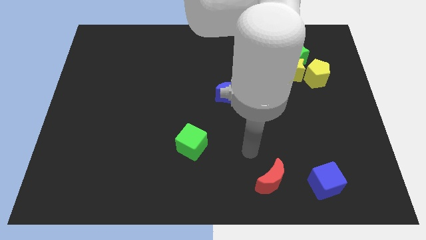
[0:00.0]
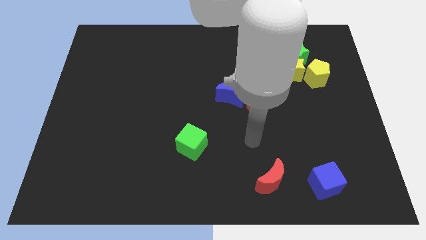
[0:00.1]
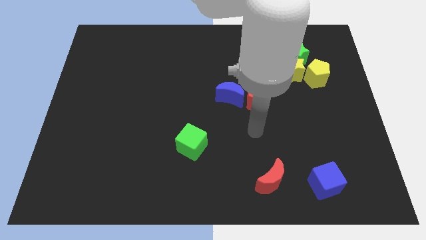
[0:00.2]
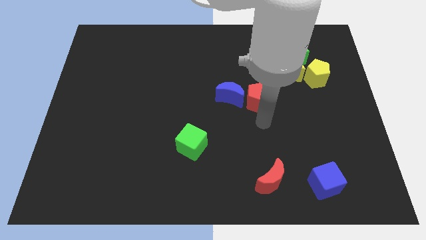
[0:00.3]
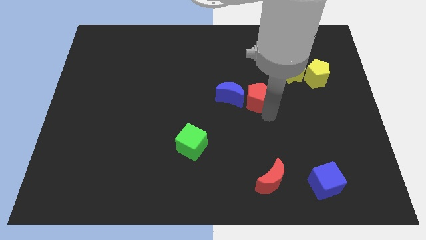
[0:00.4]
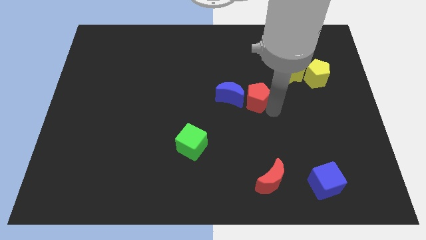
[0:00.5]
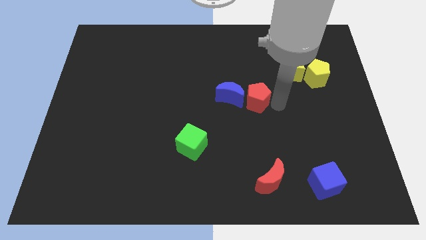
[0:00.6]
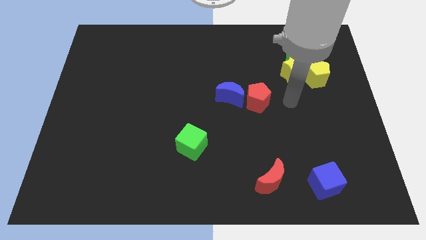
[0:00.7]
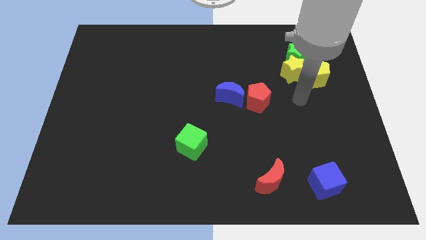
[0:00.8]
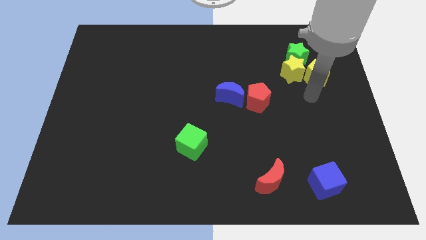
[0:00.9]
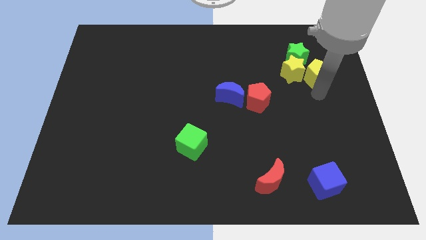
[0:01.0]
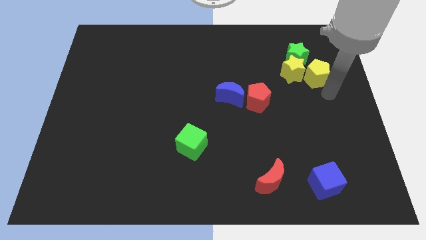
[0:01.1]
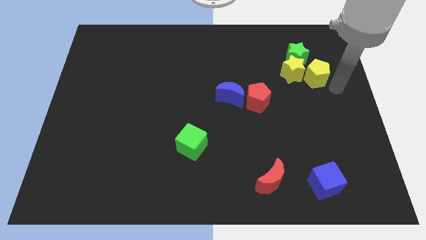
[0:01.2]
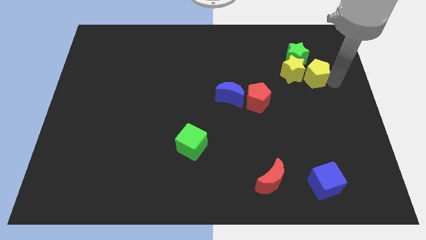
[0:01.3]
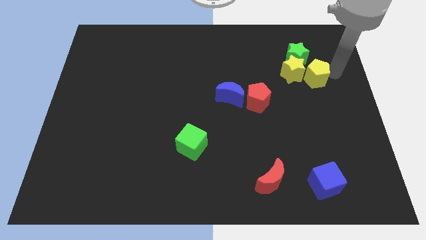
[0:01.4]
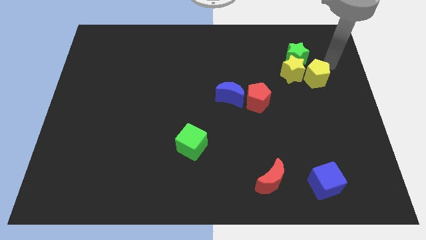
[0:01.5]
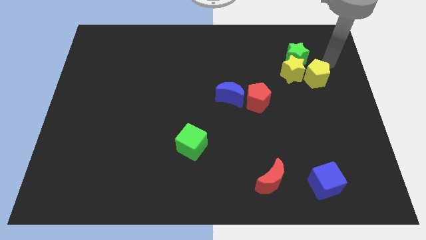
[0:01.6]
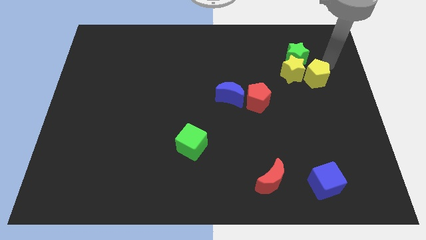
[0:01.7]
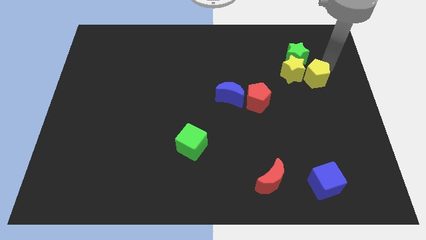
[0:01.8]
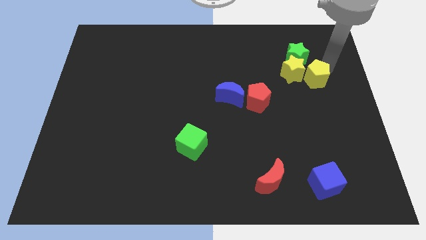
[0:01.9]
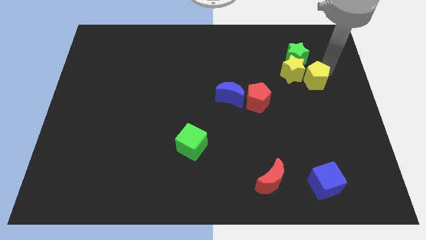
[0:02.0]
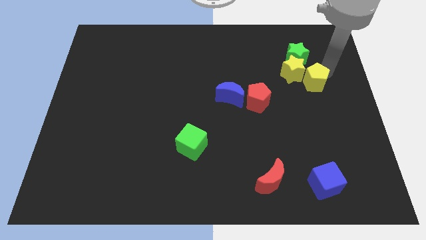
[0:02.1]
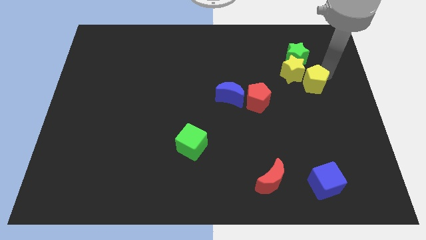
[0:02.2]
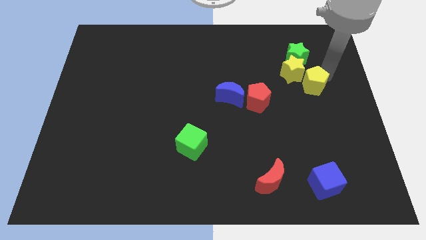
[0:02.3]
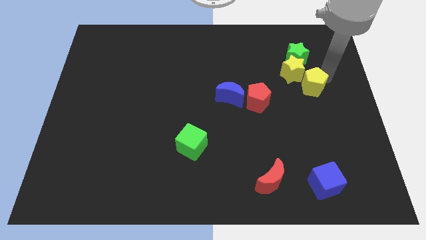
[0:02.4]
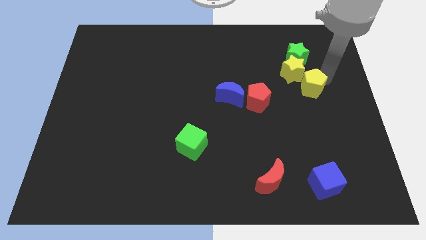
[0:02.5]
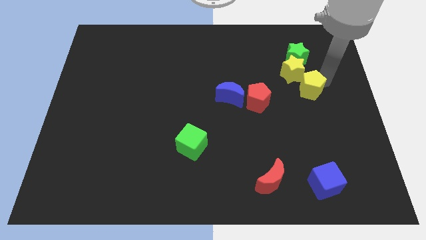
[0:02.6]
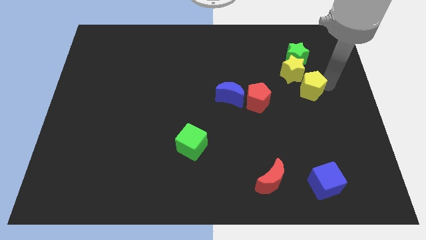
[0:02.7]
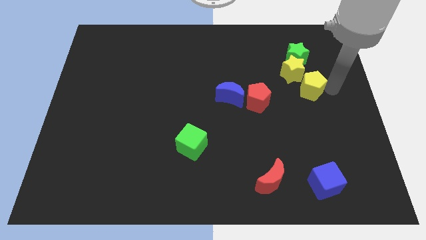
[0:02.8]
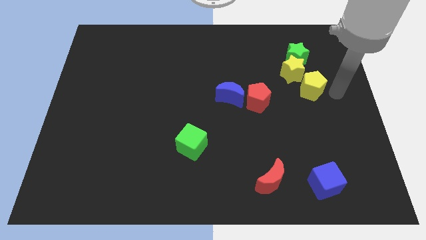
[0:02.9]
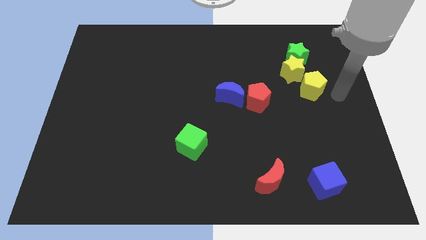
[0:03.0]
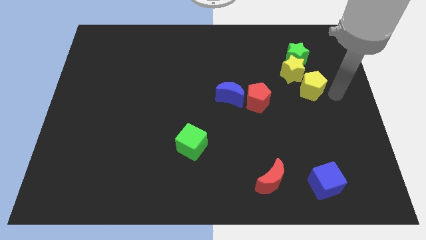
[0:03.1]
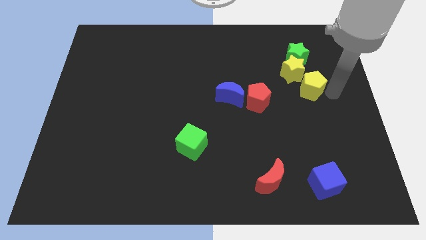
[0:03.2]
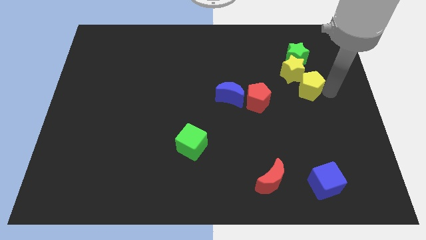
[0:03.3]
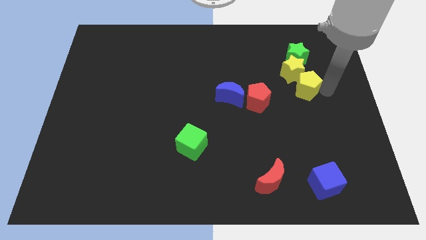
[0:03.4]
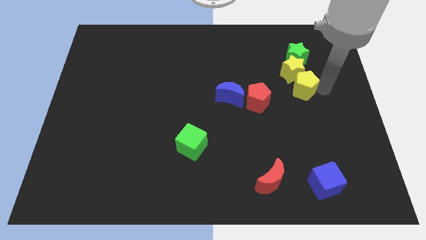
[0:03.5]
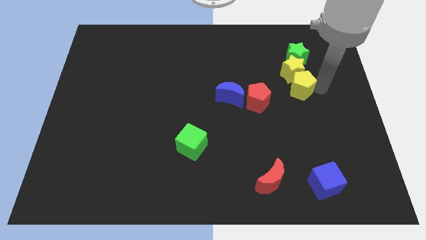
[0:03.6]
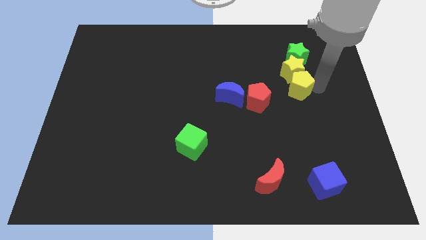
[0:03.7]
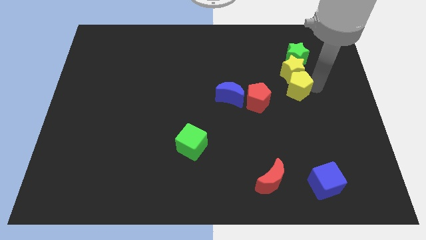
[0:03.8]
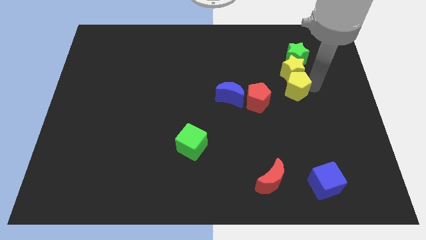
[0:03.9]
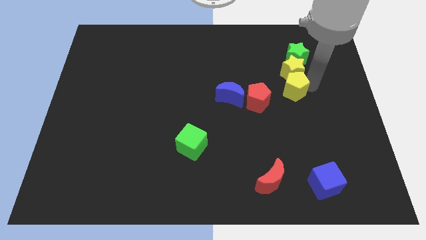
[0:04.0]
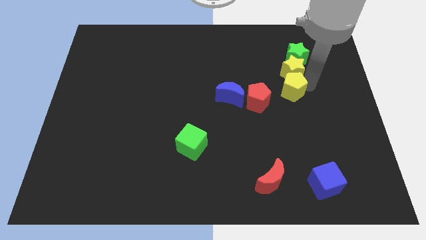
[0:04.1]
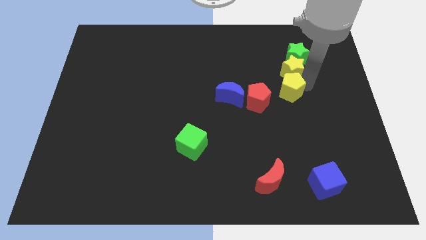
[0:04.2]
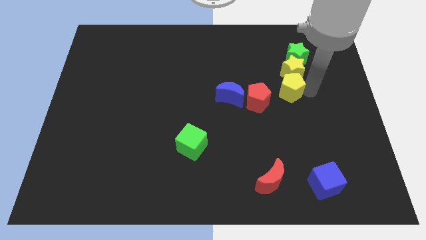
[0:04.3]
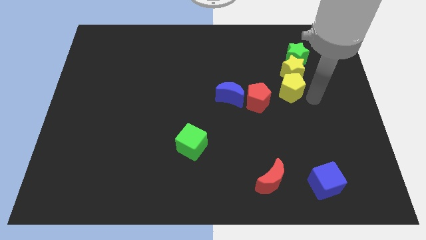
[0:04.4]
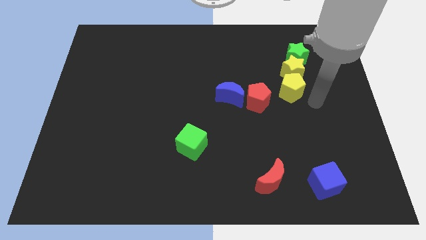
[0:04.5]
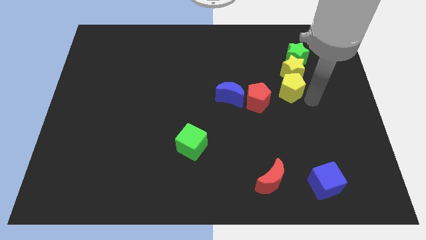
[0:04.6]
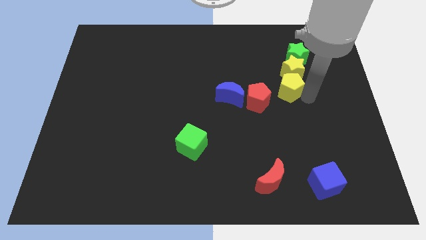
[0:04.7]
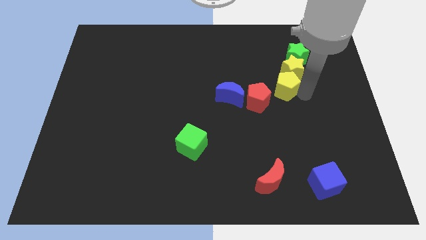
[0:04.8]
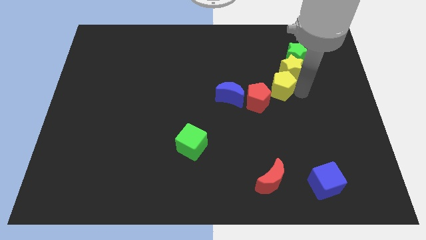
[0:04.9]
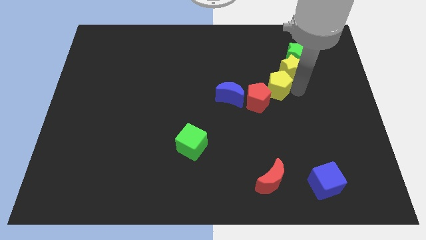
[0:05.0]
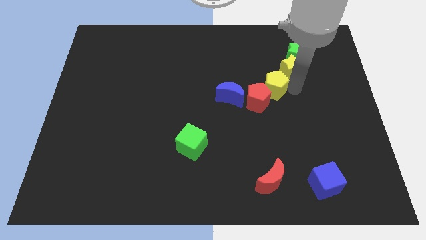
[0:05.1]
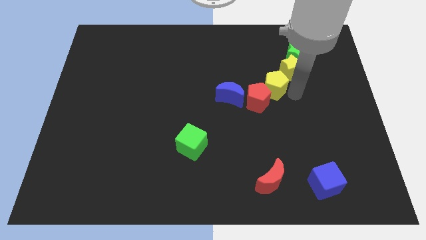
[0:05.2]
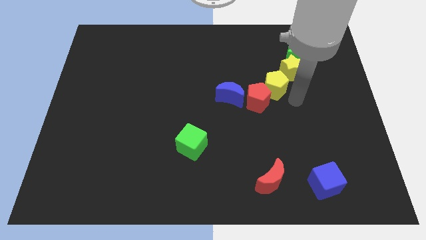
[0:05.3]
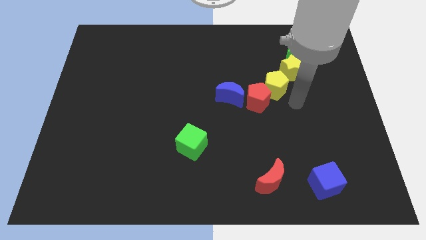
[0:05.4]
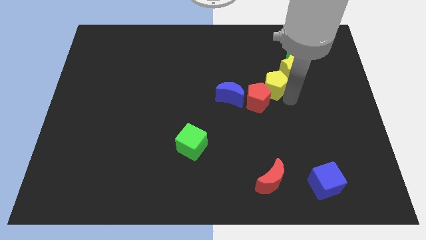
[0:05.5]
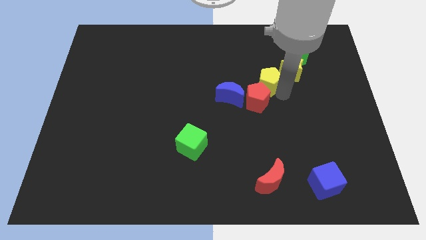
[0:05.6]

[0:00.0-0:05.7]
move the yellow pentagon to the left of the yellow star

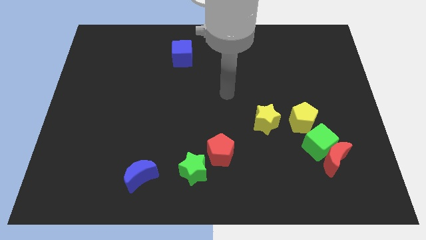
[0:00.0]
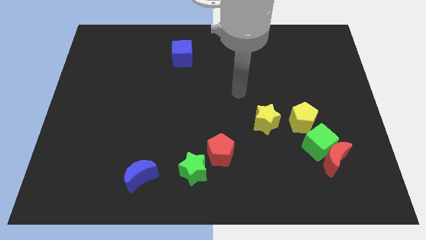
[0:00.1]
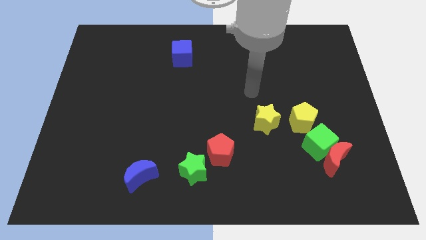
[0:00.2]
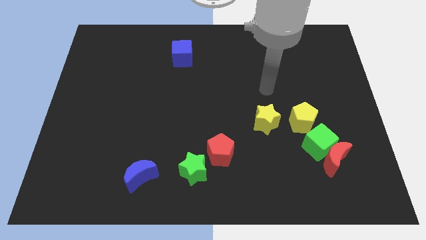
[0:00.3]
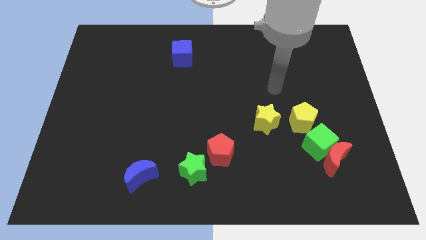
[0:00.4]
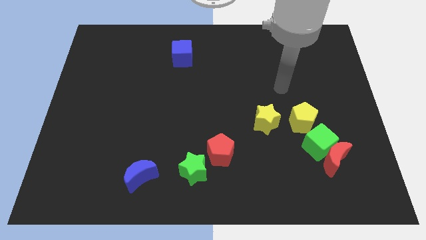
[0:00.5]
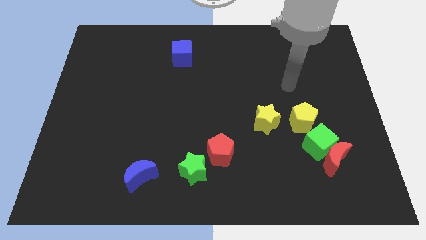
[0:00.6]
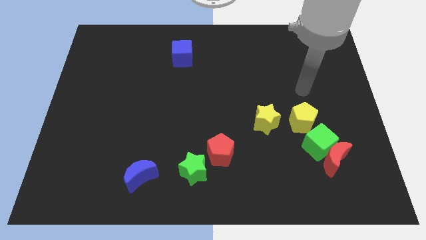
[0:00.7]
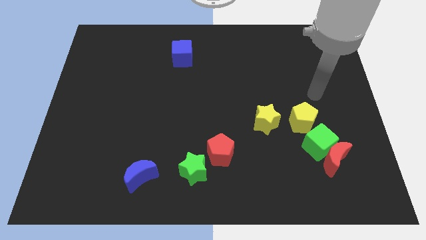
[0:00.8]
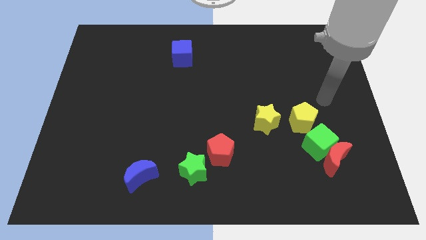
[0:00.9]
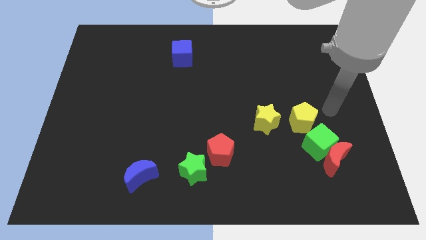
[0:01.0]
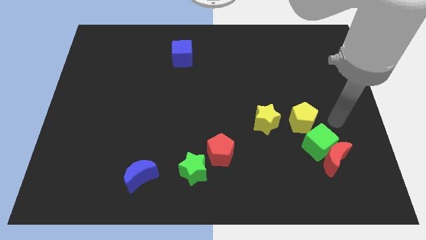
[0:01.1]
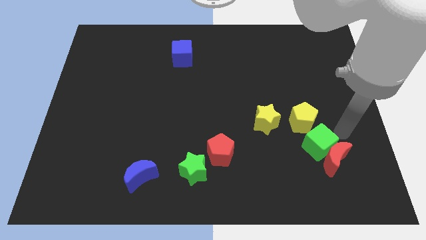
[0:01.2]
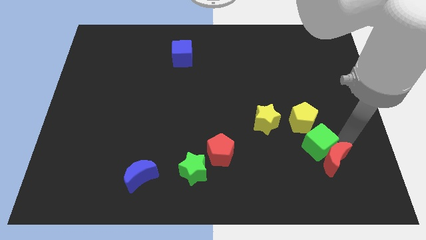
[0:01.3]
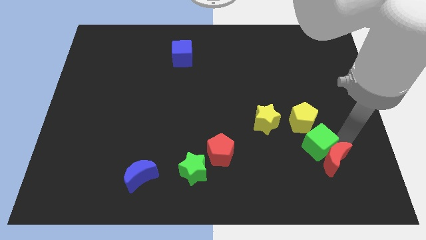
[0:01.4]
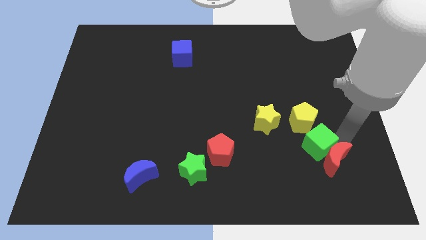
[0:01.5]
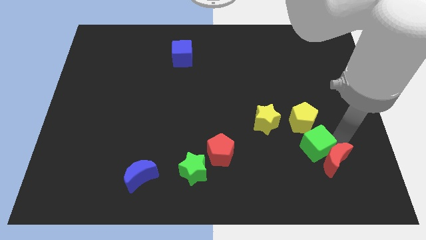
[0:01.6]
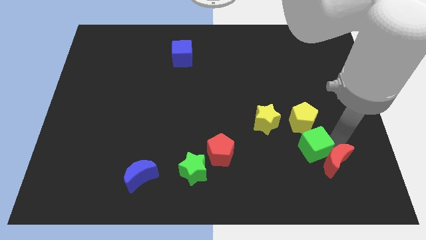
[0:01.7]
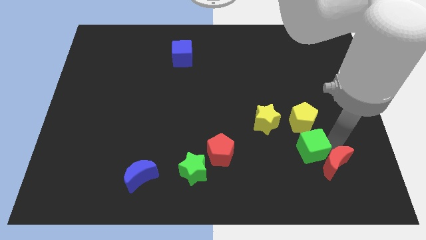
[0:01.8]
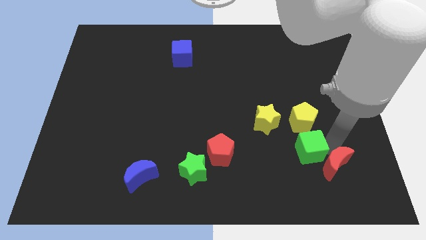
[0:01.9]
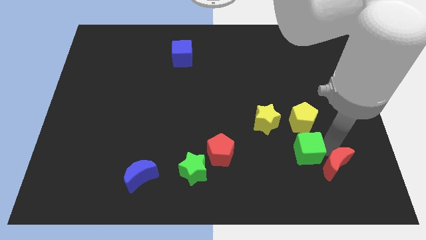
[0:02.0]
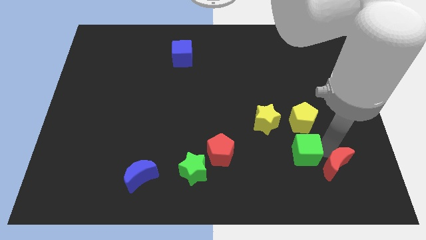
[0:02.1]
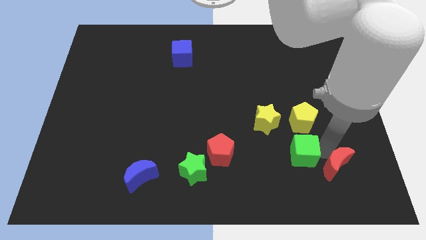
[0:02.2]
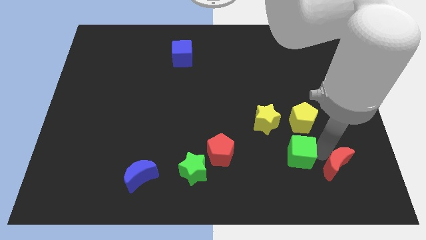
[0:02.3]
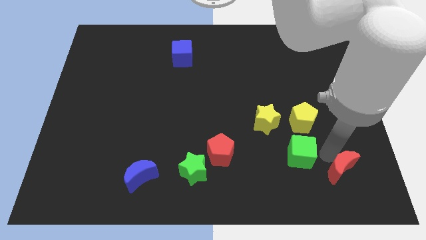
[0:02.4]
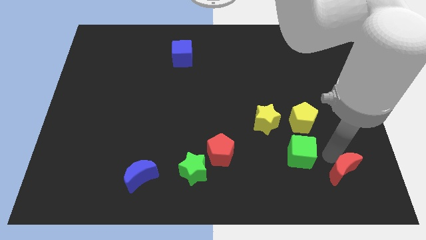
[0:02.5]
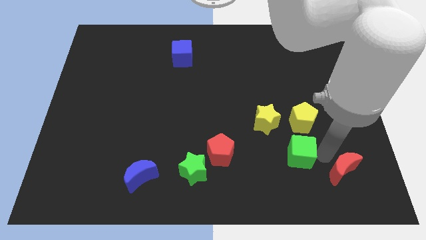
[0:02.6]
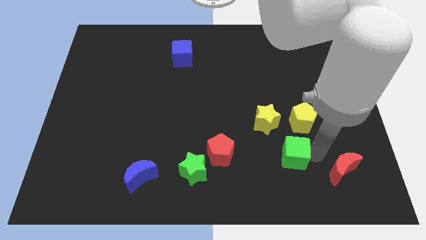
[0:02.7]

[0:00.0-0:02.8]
slide the green cube to the right of the red pentagon
